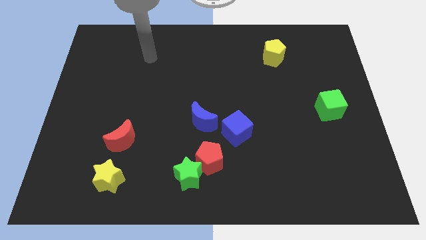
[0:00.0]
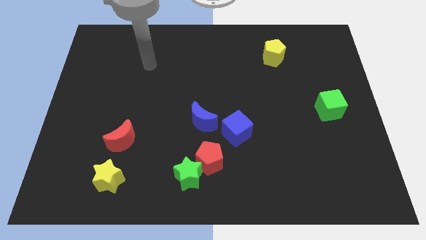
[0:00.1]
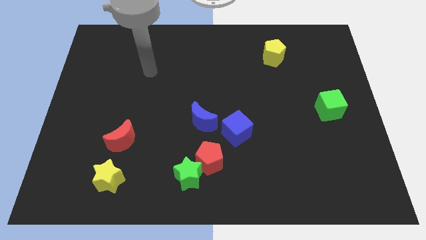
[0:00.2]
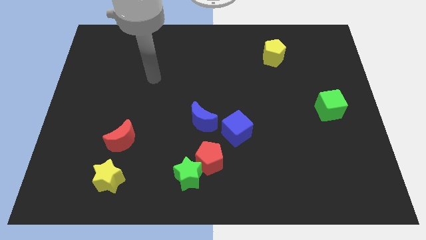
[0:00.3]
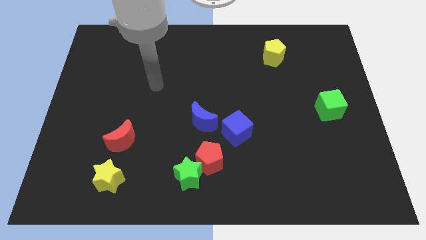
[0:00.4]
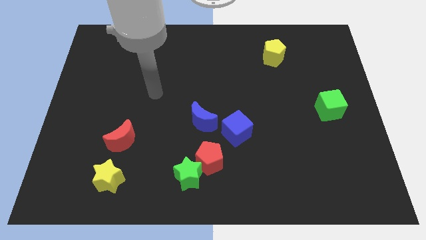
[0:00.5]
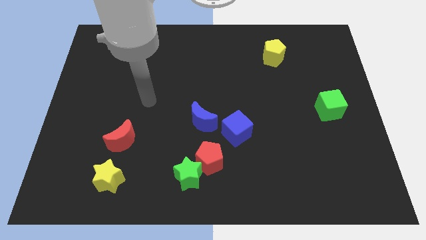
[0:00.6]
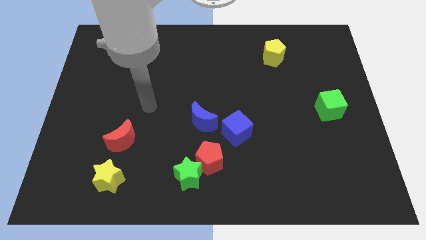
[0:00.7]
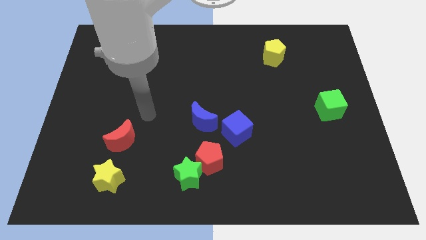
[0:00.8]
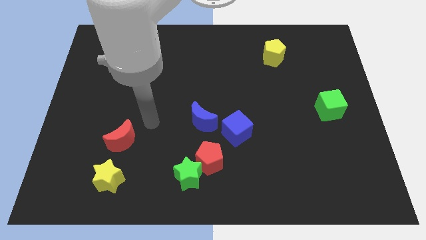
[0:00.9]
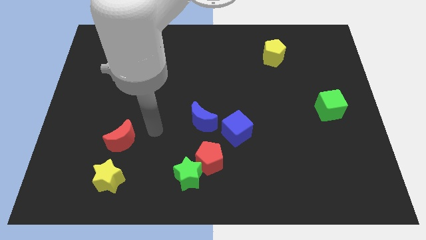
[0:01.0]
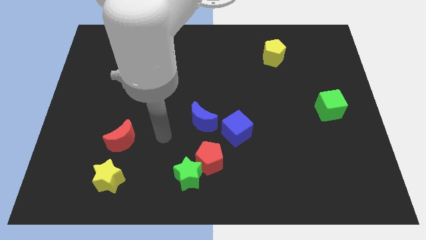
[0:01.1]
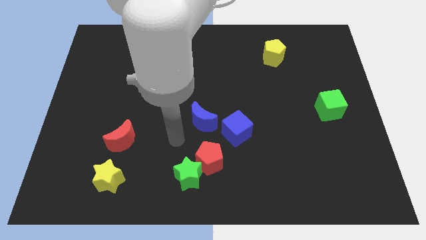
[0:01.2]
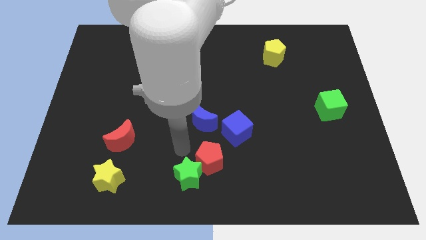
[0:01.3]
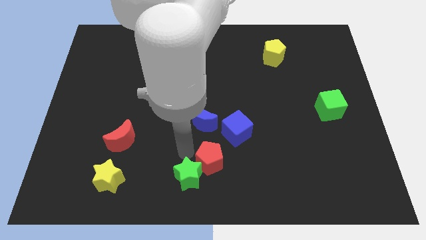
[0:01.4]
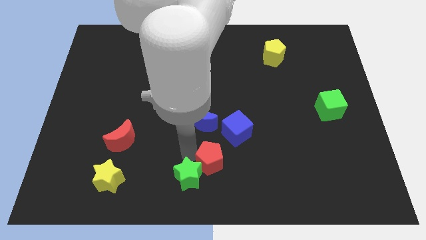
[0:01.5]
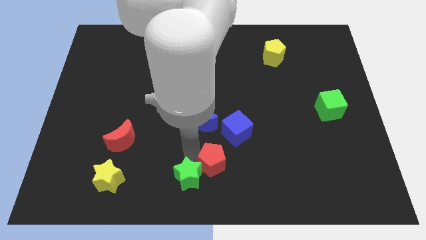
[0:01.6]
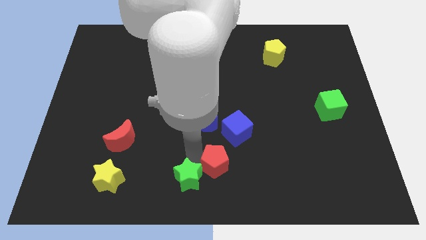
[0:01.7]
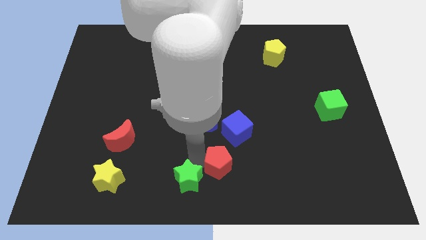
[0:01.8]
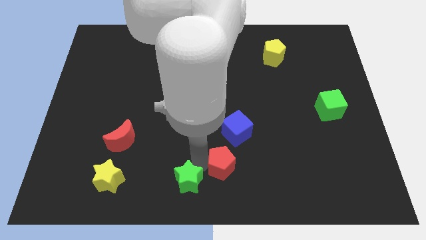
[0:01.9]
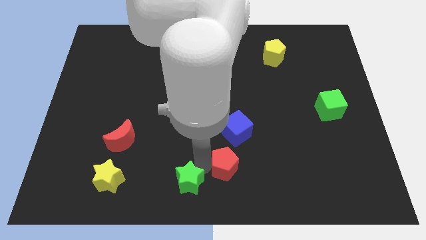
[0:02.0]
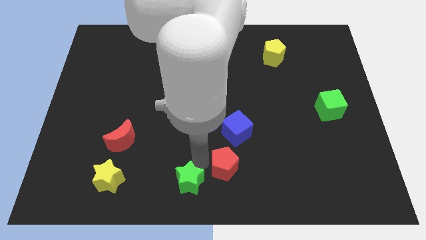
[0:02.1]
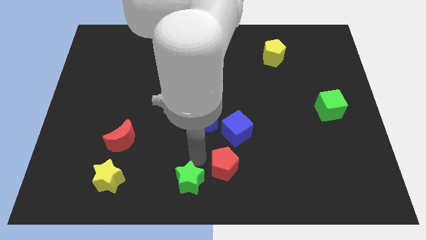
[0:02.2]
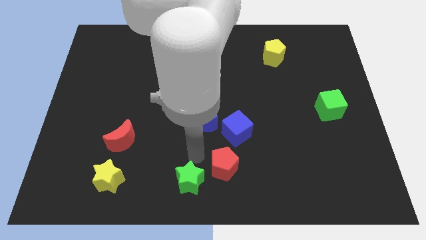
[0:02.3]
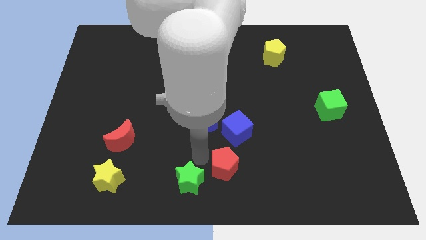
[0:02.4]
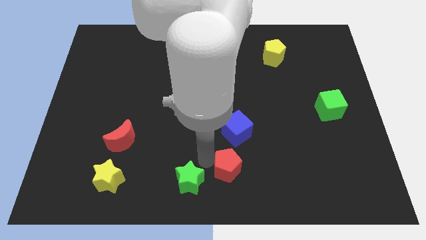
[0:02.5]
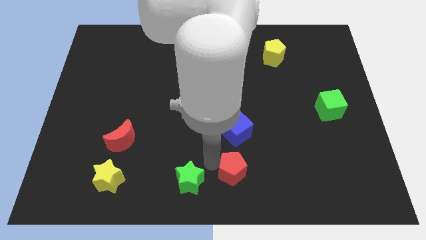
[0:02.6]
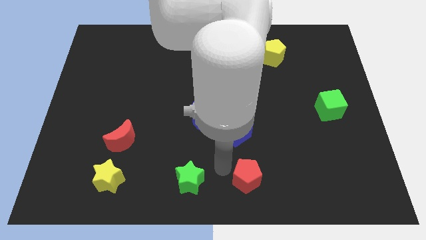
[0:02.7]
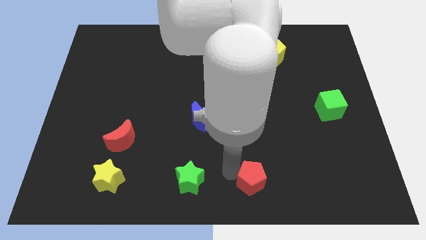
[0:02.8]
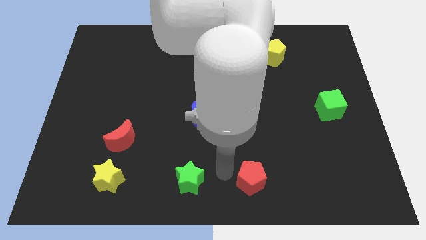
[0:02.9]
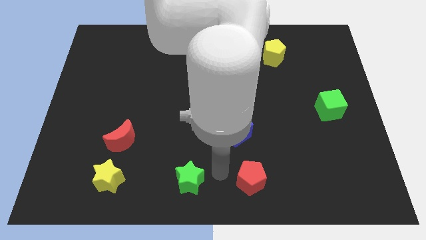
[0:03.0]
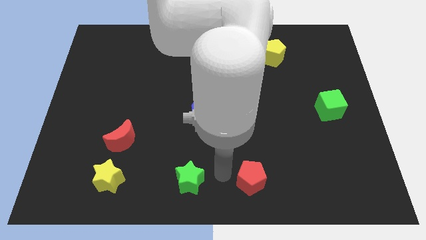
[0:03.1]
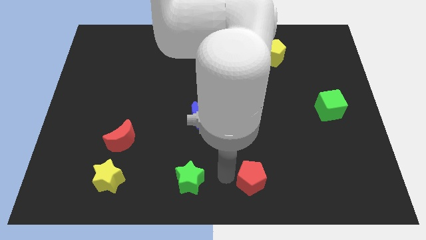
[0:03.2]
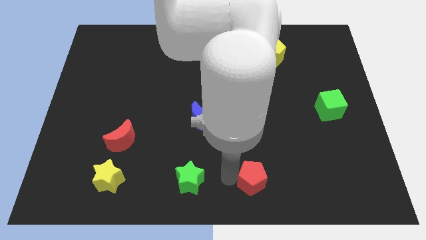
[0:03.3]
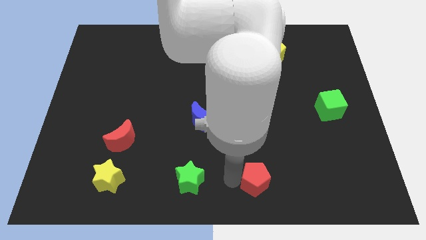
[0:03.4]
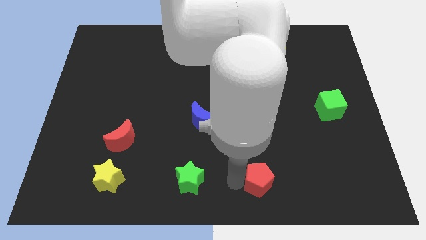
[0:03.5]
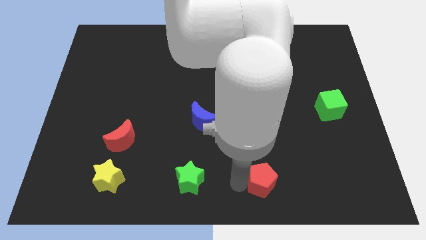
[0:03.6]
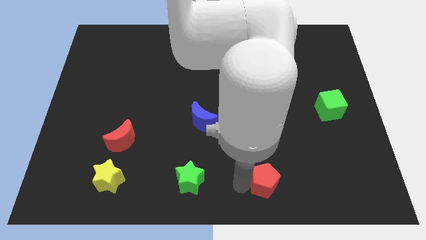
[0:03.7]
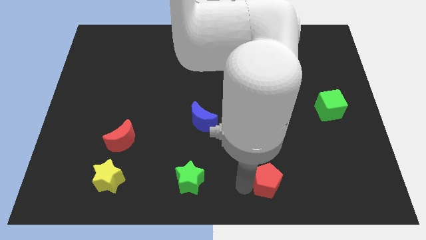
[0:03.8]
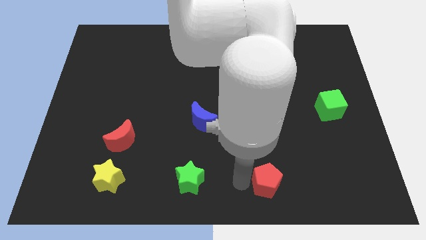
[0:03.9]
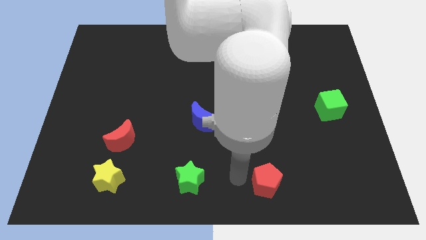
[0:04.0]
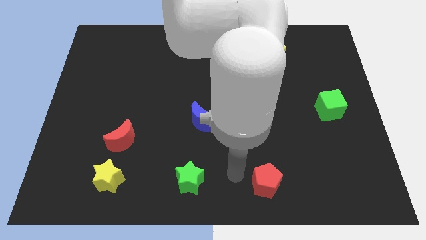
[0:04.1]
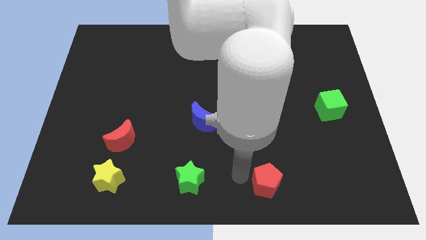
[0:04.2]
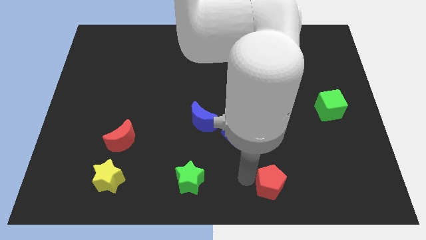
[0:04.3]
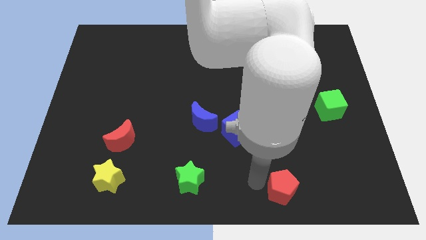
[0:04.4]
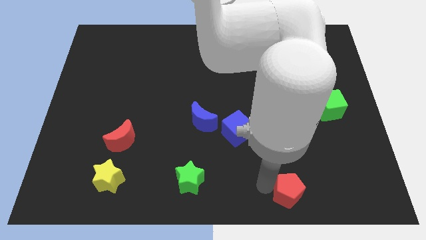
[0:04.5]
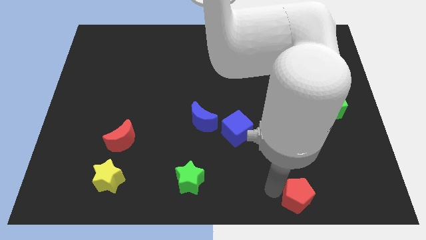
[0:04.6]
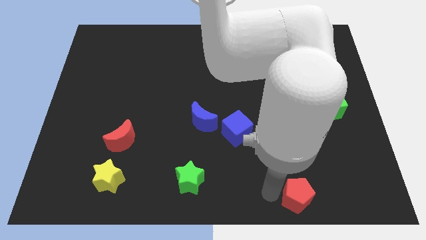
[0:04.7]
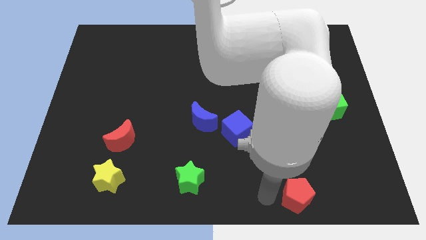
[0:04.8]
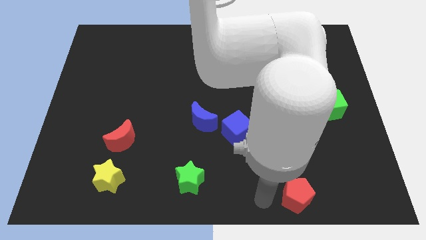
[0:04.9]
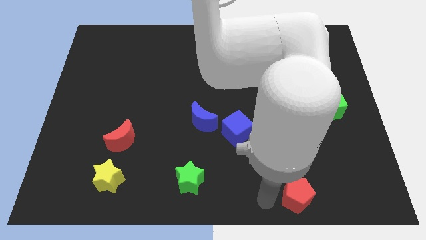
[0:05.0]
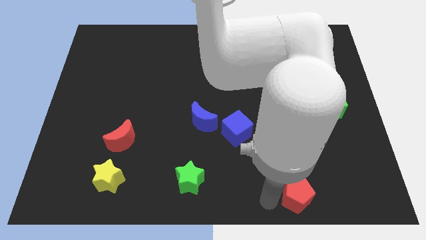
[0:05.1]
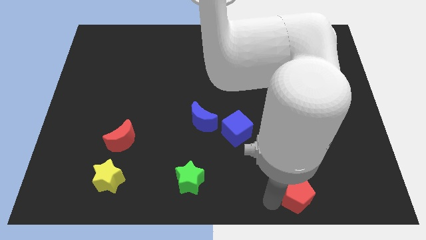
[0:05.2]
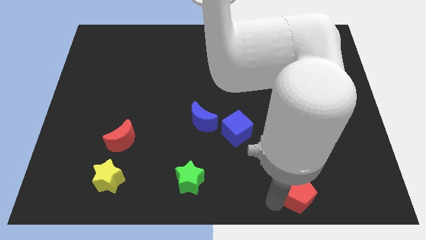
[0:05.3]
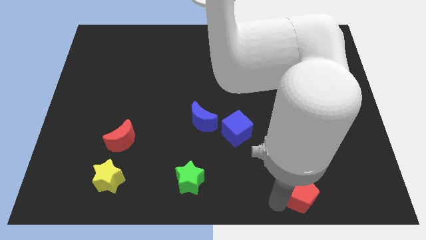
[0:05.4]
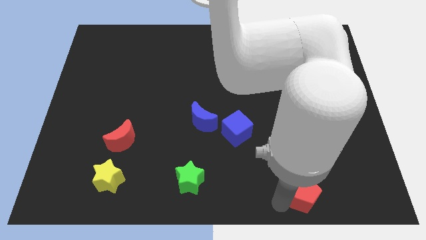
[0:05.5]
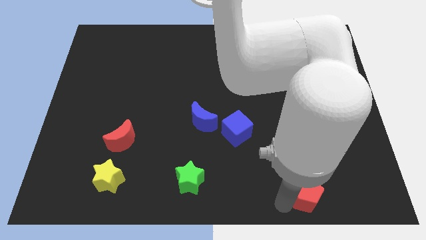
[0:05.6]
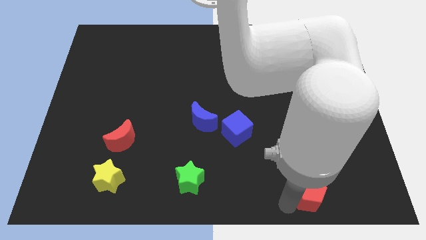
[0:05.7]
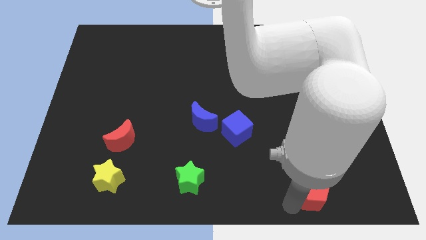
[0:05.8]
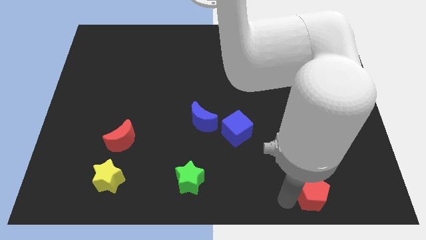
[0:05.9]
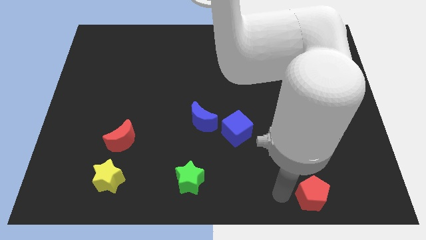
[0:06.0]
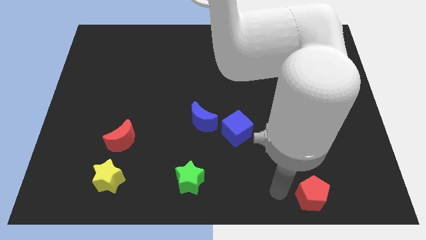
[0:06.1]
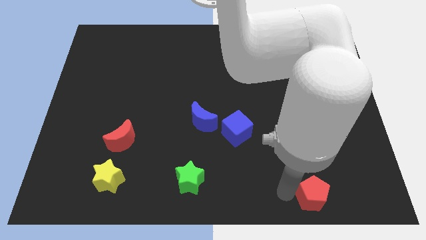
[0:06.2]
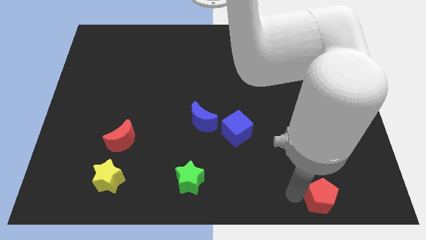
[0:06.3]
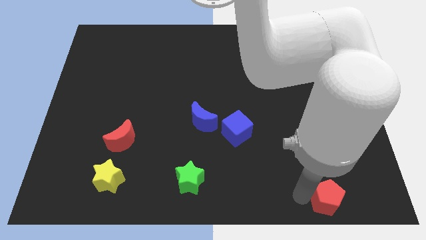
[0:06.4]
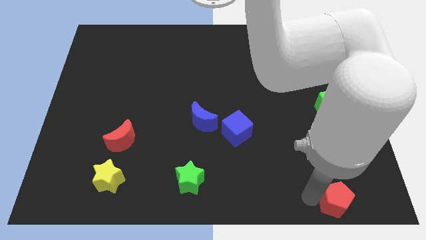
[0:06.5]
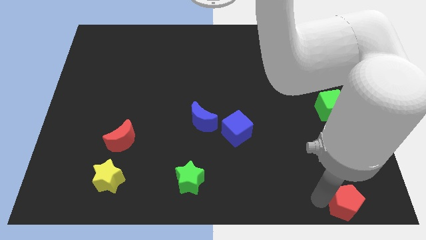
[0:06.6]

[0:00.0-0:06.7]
put the red pentagon to the lower right corner
